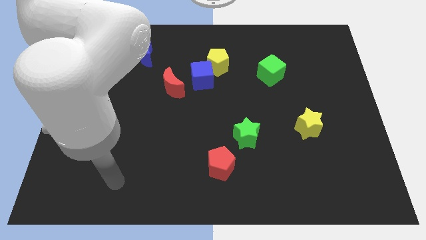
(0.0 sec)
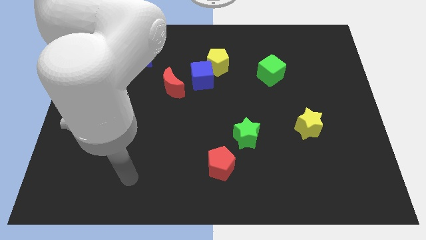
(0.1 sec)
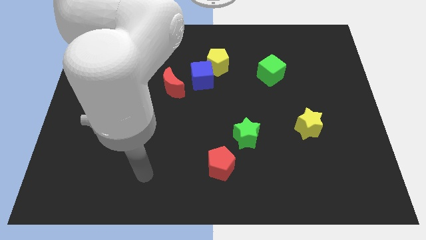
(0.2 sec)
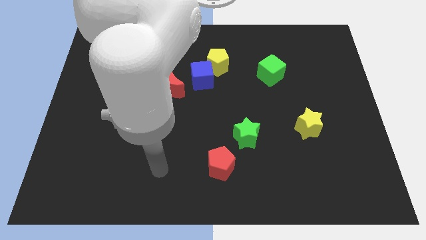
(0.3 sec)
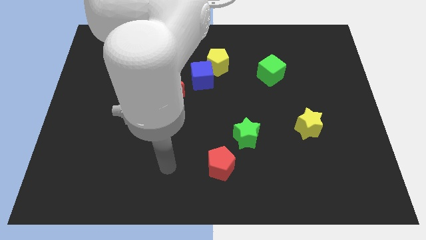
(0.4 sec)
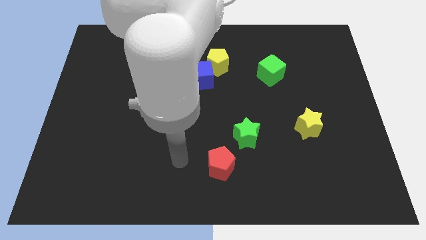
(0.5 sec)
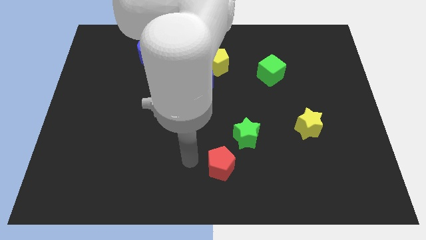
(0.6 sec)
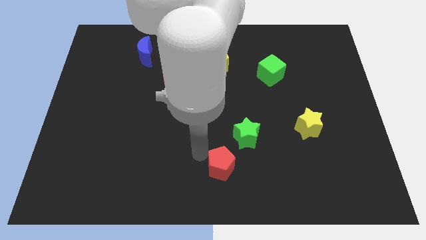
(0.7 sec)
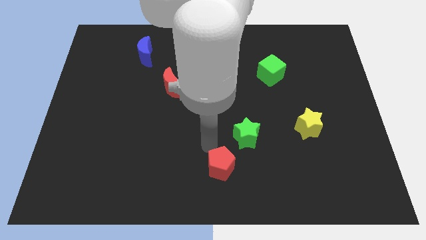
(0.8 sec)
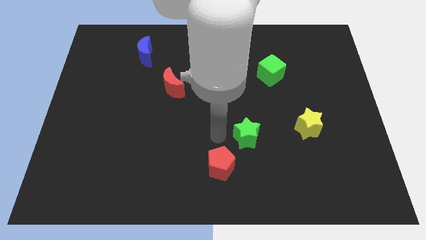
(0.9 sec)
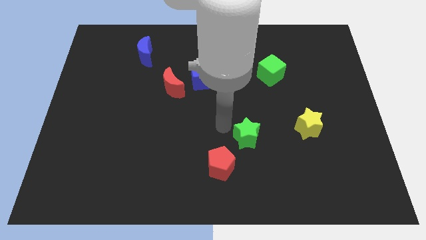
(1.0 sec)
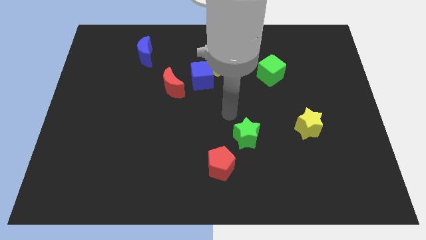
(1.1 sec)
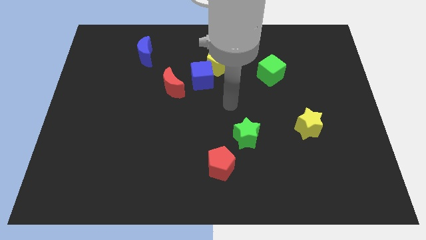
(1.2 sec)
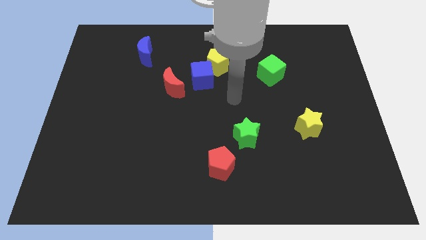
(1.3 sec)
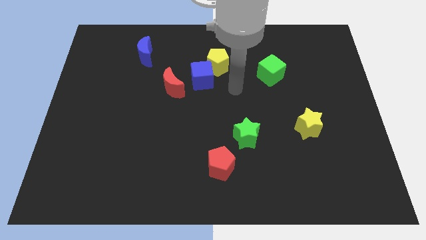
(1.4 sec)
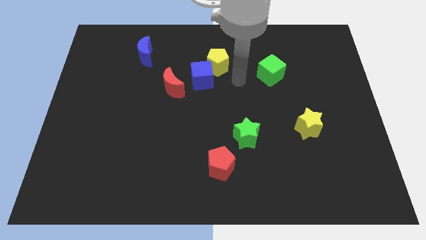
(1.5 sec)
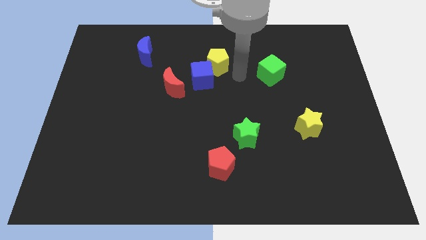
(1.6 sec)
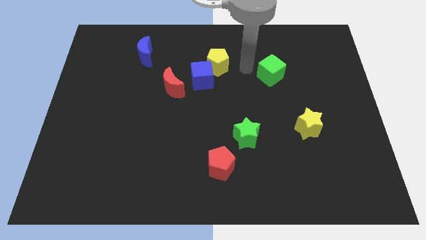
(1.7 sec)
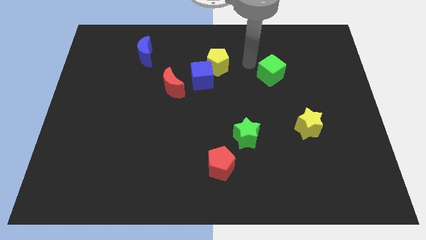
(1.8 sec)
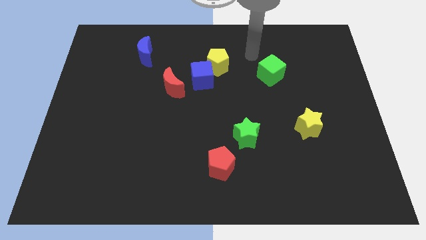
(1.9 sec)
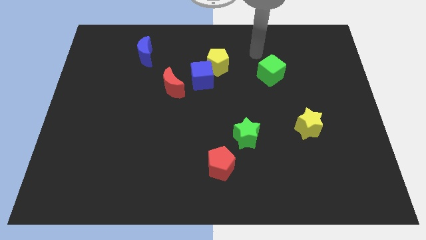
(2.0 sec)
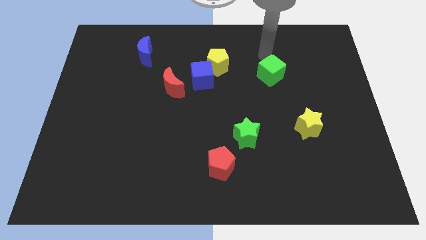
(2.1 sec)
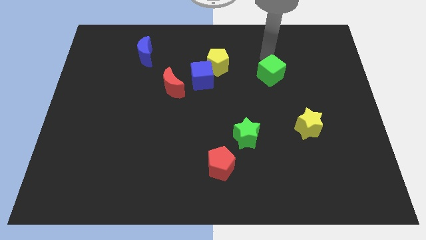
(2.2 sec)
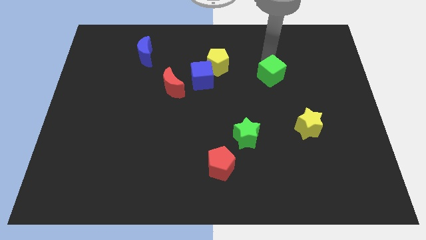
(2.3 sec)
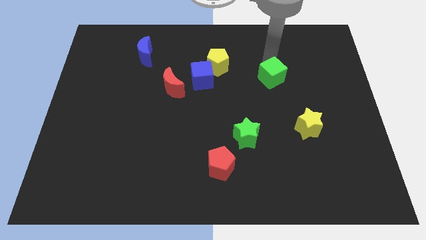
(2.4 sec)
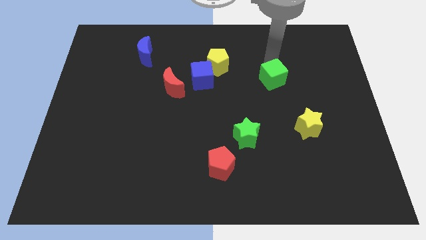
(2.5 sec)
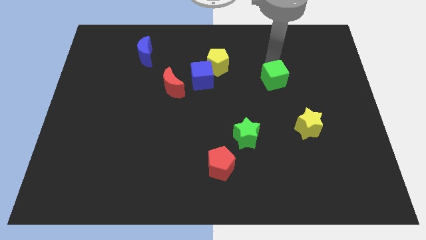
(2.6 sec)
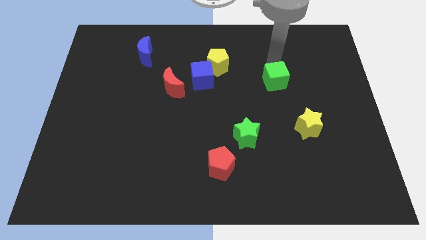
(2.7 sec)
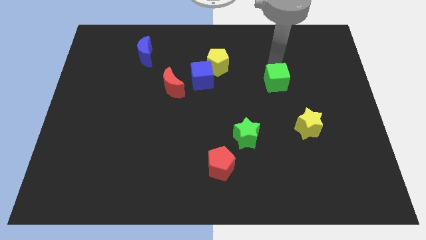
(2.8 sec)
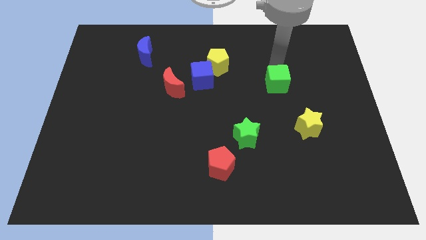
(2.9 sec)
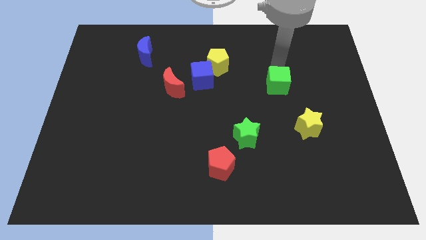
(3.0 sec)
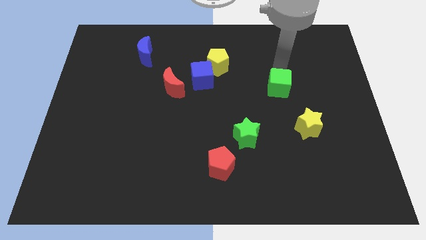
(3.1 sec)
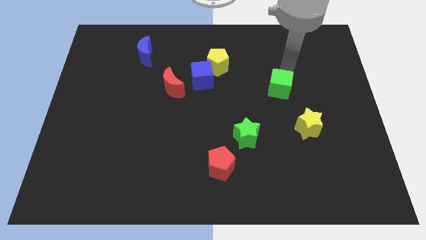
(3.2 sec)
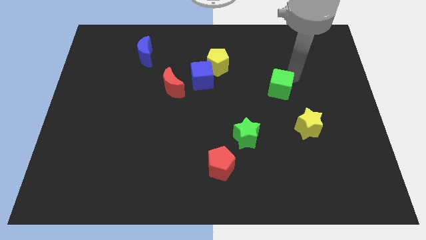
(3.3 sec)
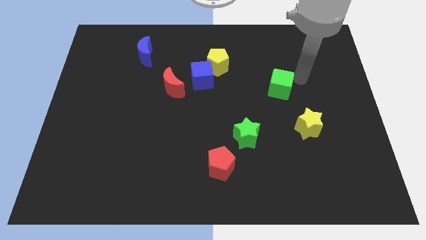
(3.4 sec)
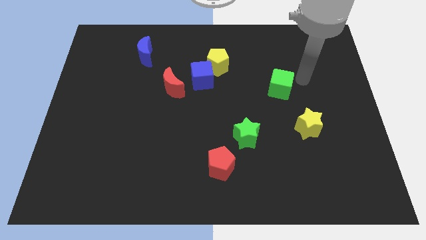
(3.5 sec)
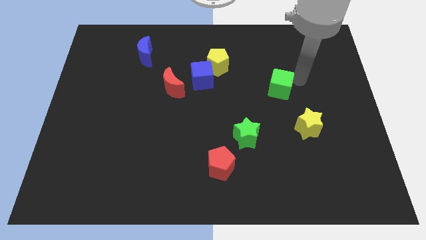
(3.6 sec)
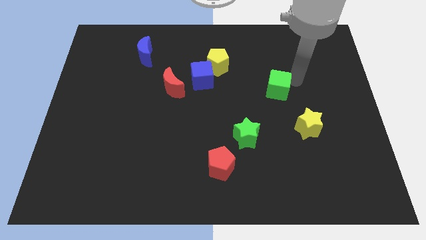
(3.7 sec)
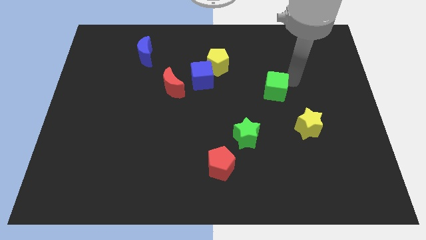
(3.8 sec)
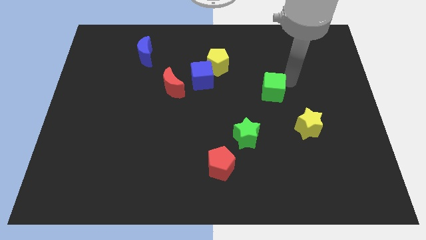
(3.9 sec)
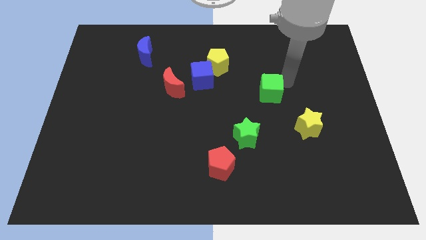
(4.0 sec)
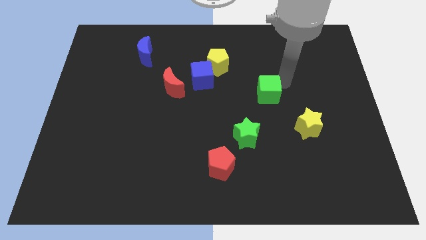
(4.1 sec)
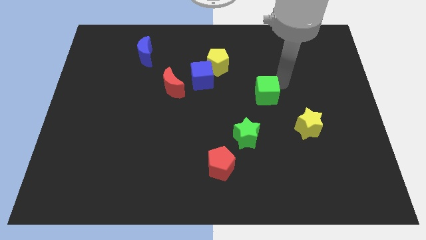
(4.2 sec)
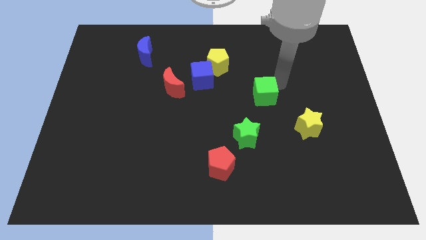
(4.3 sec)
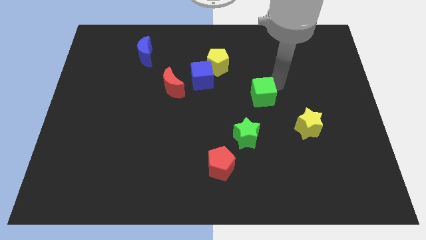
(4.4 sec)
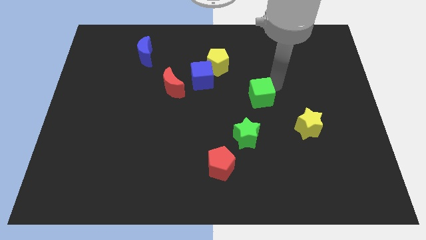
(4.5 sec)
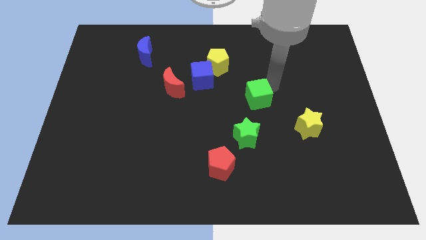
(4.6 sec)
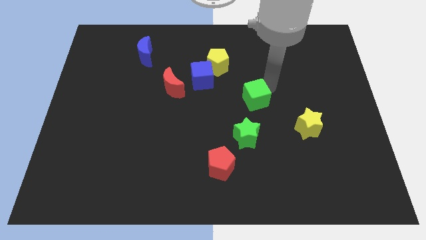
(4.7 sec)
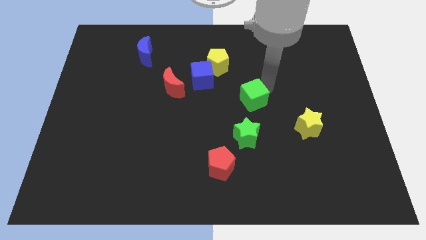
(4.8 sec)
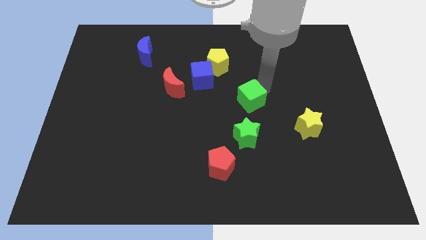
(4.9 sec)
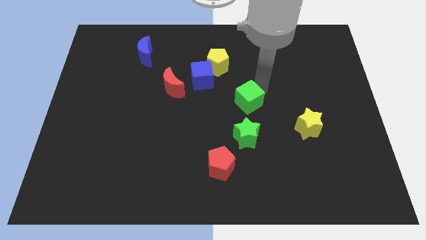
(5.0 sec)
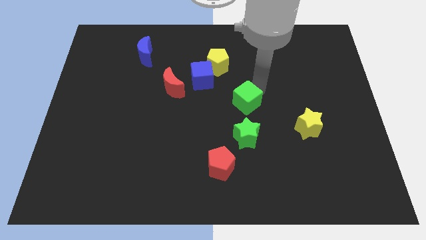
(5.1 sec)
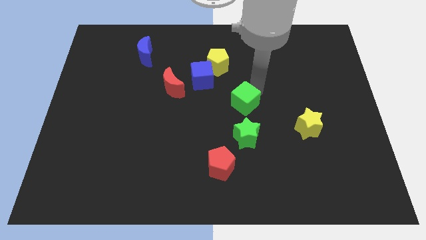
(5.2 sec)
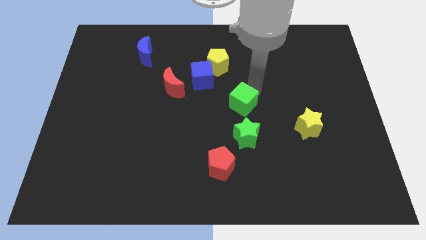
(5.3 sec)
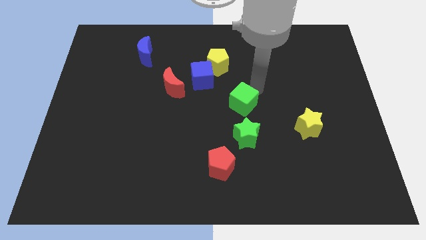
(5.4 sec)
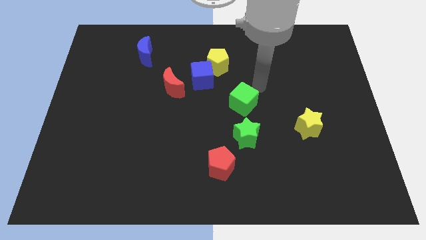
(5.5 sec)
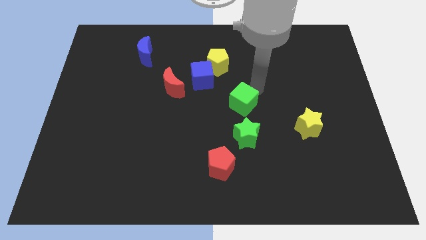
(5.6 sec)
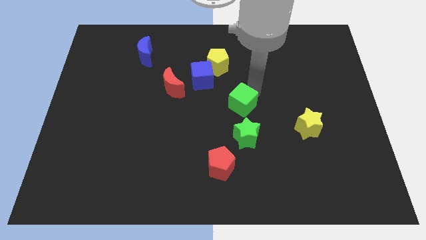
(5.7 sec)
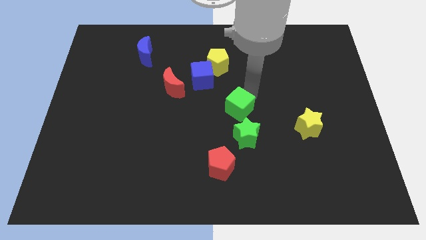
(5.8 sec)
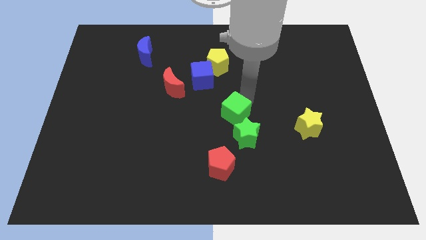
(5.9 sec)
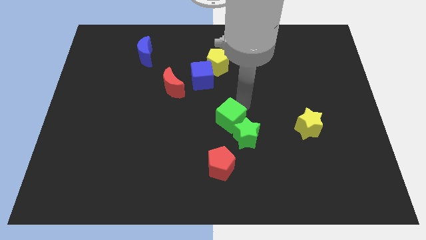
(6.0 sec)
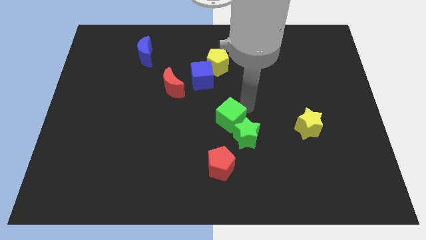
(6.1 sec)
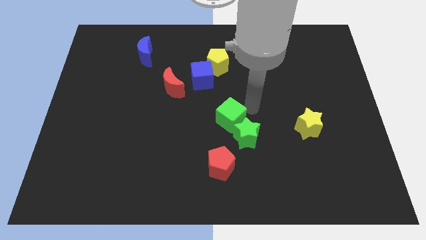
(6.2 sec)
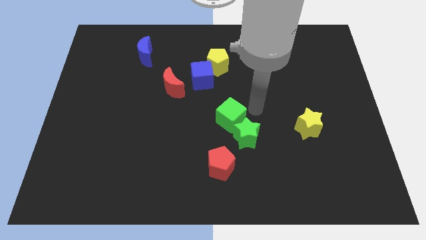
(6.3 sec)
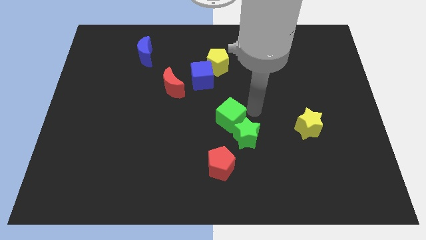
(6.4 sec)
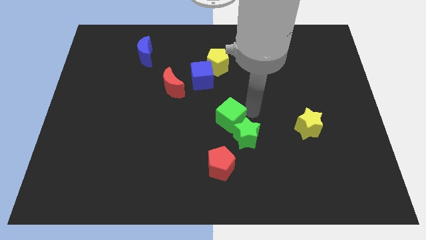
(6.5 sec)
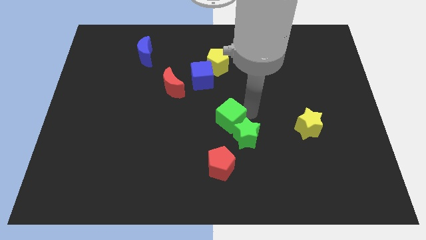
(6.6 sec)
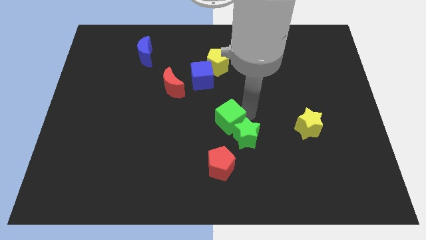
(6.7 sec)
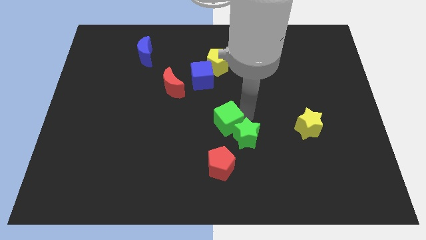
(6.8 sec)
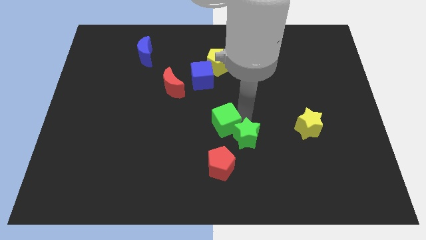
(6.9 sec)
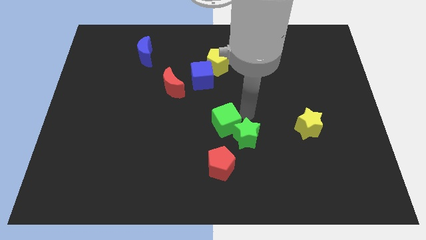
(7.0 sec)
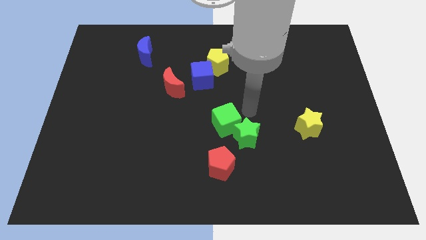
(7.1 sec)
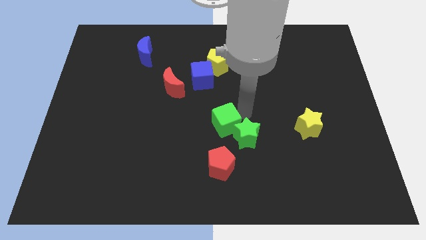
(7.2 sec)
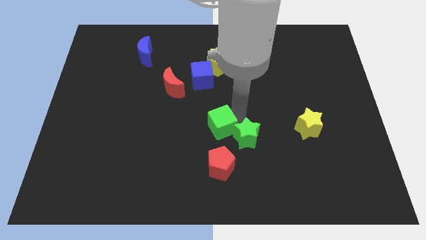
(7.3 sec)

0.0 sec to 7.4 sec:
move the green cube downwards and then to the left

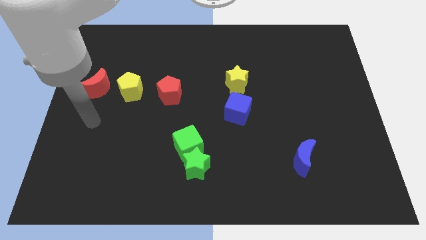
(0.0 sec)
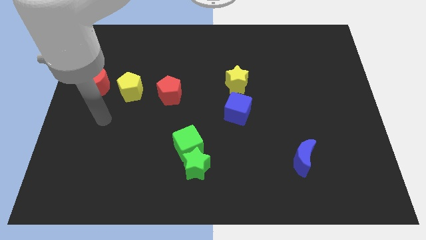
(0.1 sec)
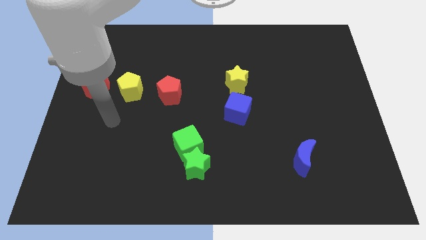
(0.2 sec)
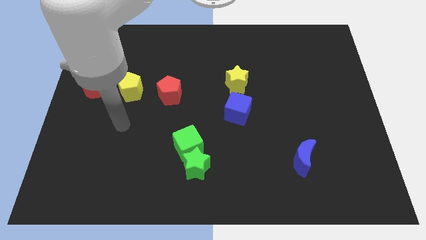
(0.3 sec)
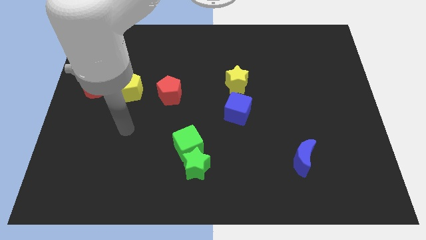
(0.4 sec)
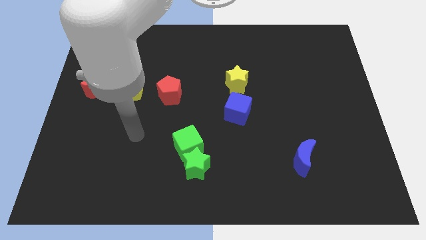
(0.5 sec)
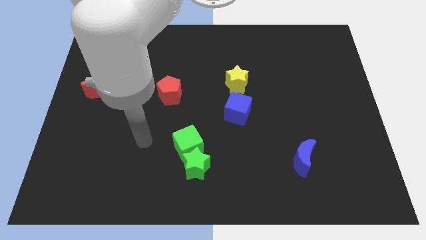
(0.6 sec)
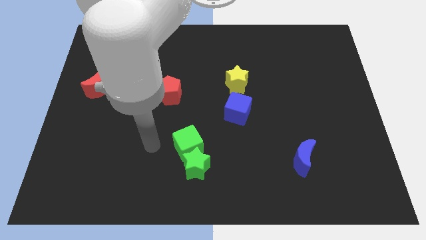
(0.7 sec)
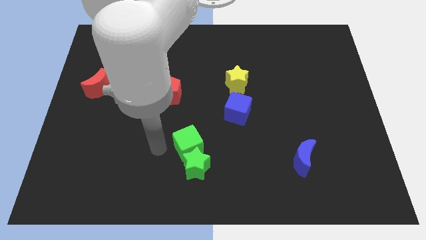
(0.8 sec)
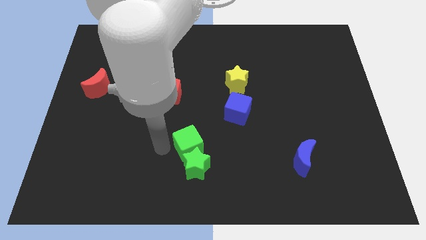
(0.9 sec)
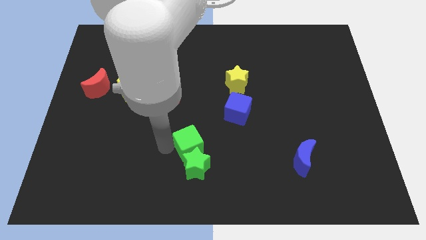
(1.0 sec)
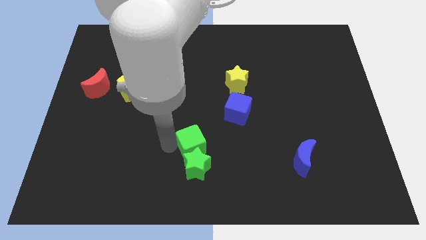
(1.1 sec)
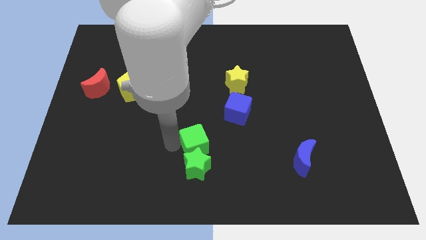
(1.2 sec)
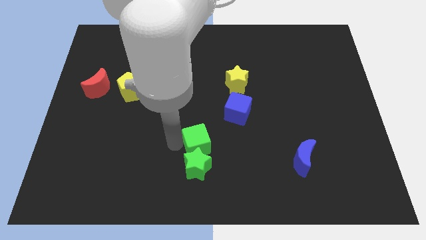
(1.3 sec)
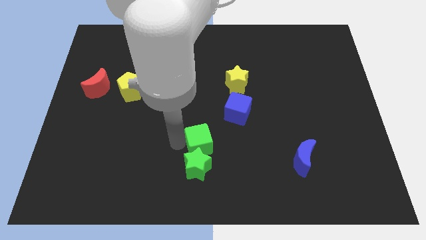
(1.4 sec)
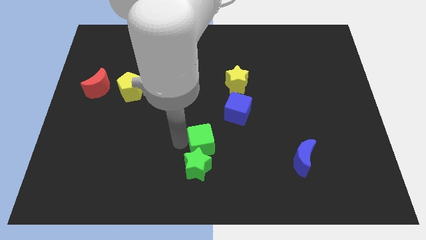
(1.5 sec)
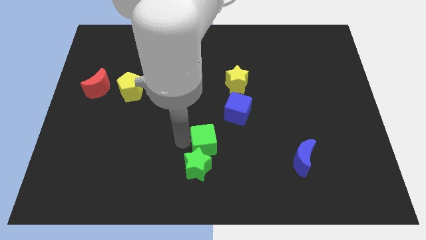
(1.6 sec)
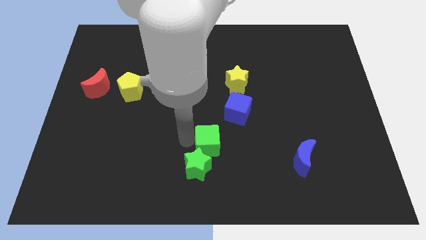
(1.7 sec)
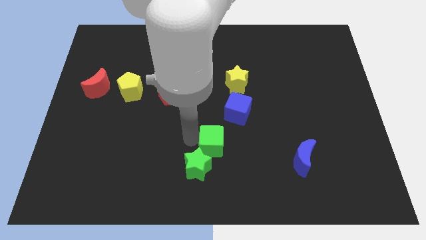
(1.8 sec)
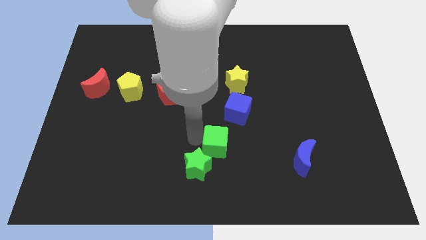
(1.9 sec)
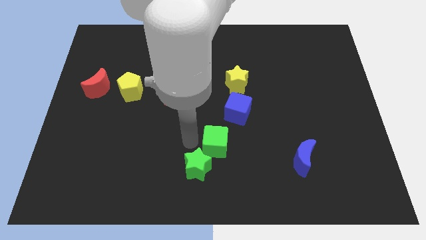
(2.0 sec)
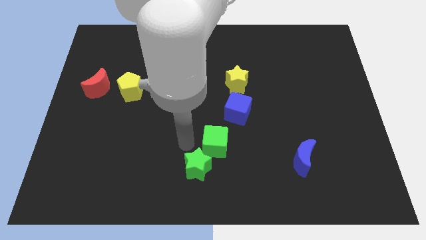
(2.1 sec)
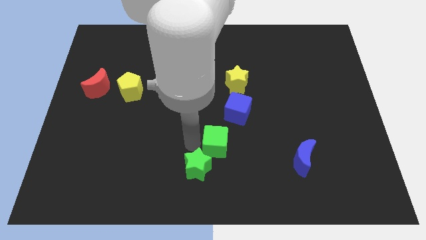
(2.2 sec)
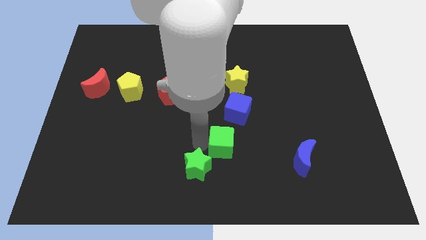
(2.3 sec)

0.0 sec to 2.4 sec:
slightly slide the green cube right
